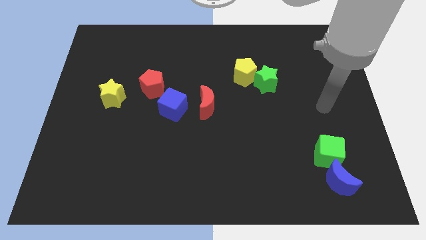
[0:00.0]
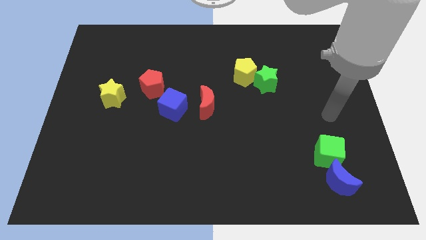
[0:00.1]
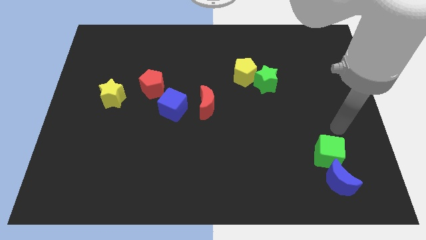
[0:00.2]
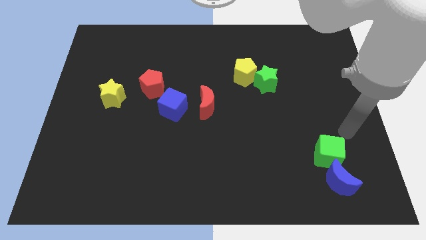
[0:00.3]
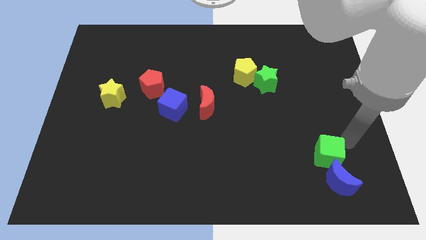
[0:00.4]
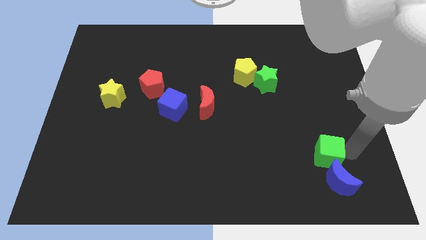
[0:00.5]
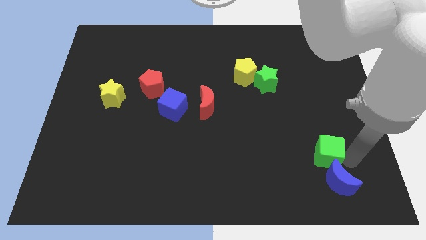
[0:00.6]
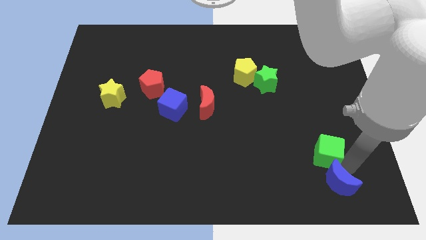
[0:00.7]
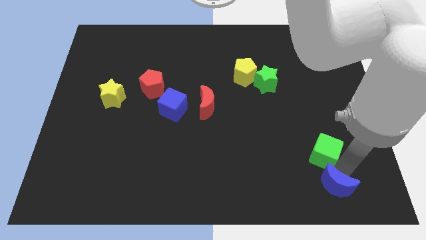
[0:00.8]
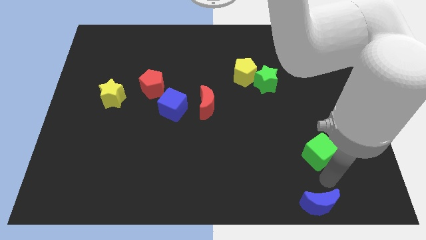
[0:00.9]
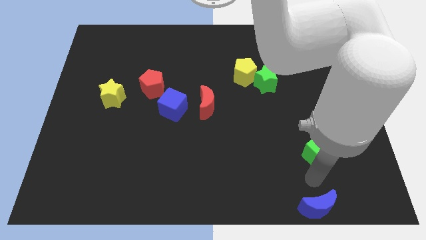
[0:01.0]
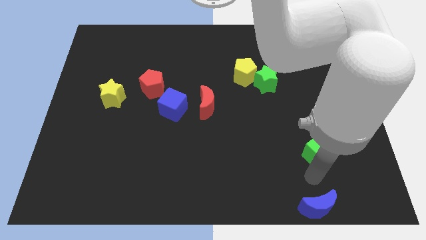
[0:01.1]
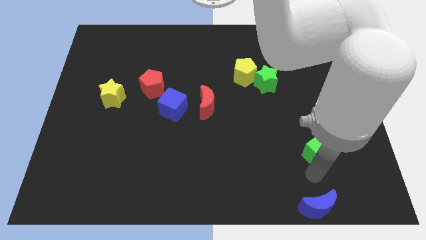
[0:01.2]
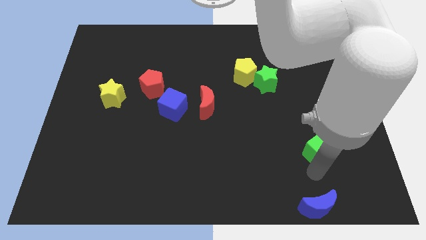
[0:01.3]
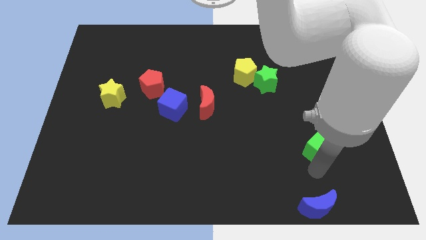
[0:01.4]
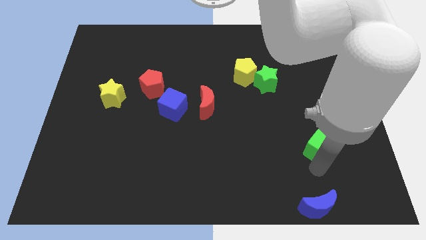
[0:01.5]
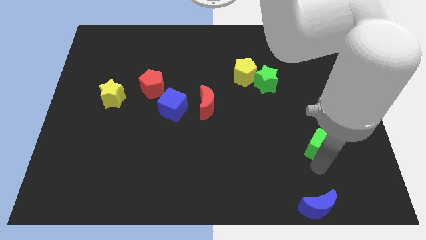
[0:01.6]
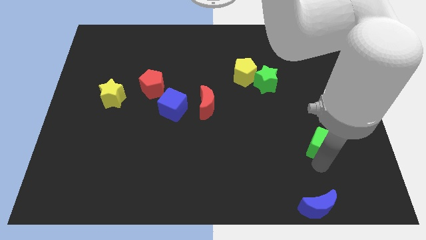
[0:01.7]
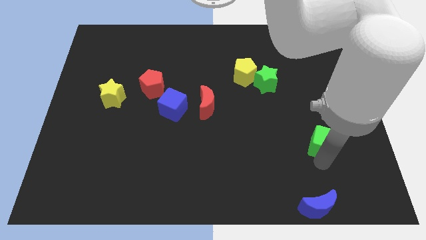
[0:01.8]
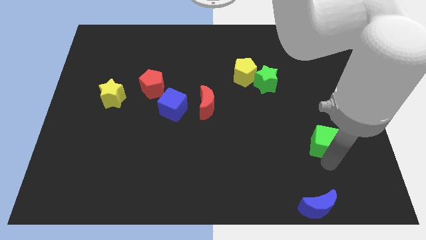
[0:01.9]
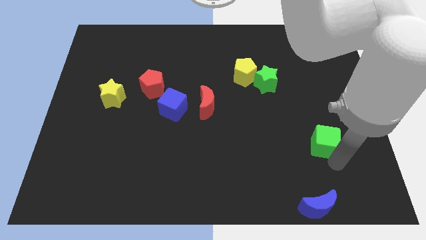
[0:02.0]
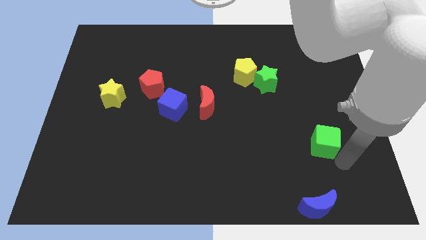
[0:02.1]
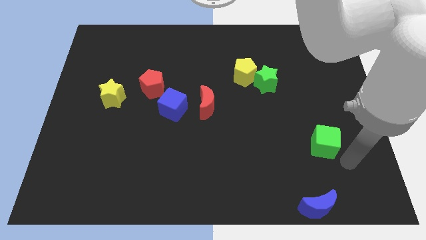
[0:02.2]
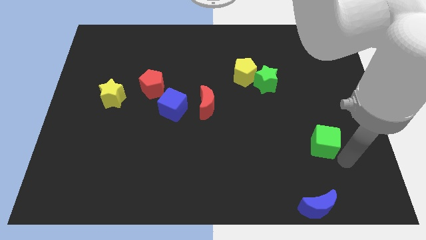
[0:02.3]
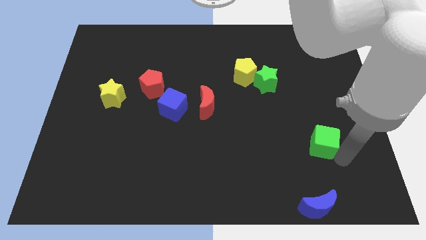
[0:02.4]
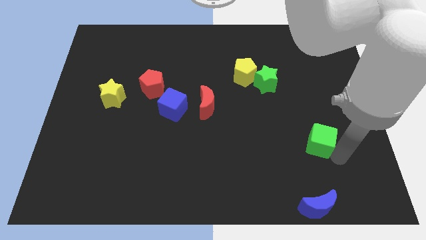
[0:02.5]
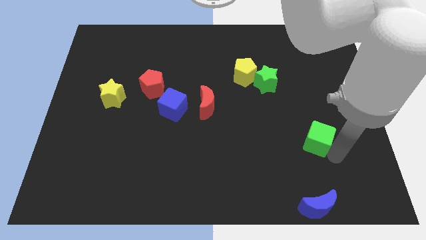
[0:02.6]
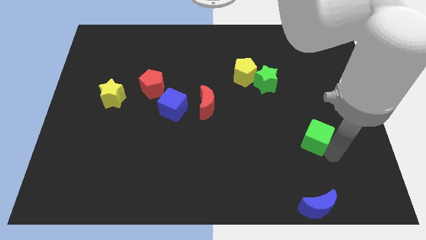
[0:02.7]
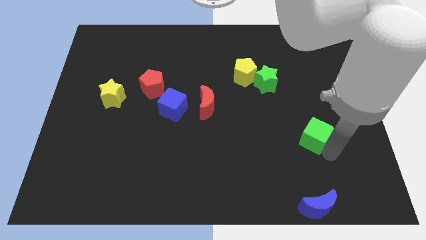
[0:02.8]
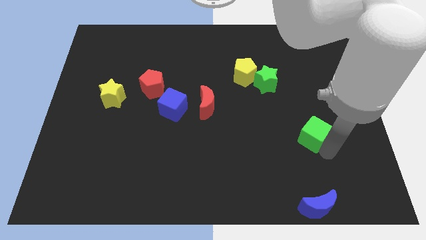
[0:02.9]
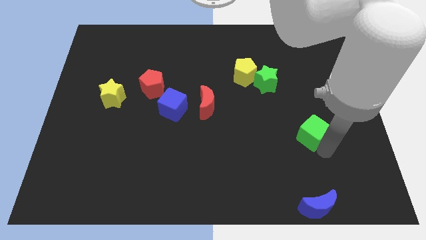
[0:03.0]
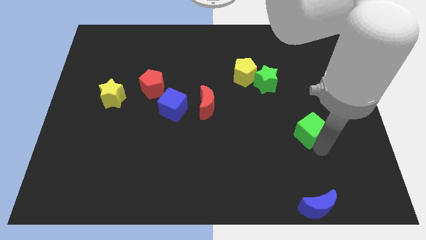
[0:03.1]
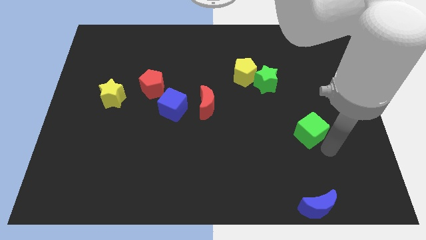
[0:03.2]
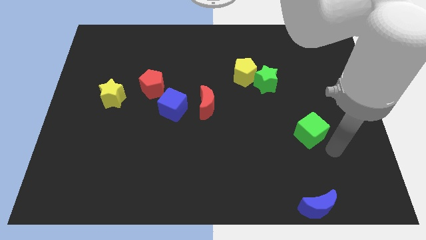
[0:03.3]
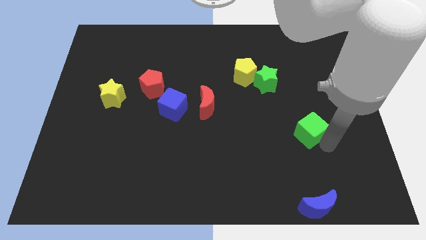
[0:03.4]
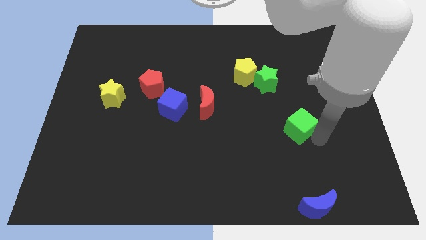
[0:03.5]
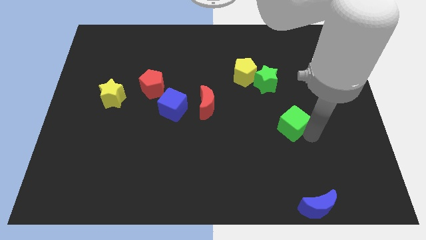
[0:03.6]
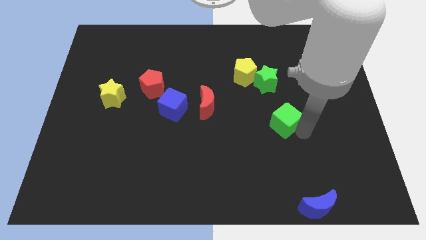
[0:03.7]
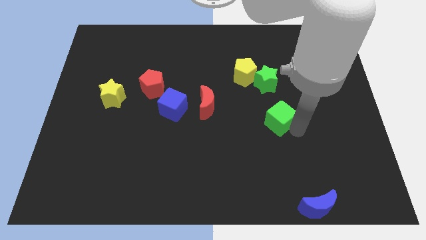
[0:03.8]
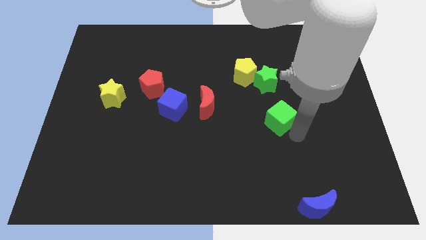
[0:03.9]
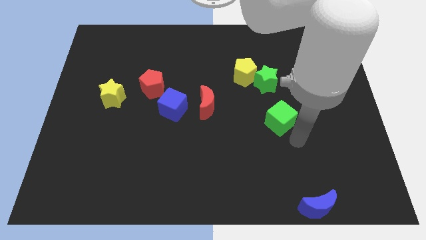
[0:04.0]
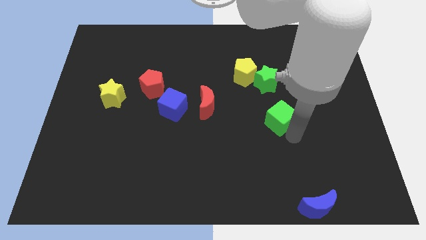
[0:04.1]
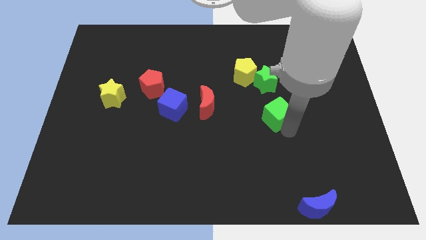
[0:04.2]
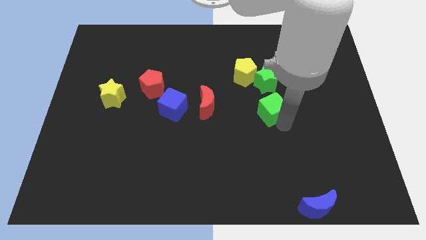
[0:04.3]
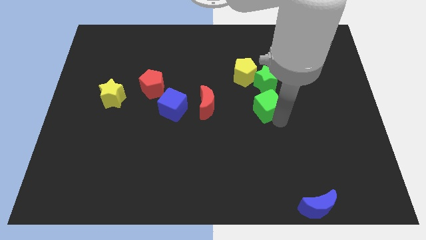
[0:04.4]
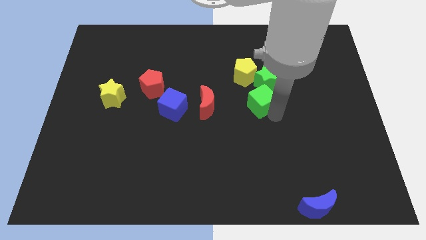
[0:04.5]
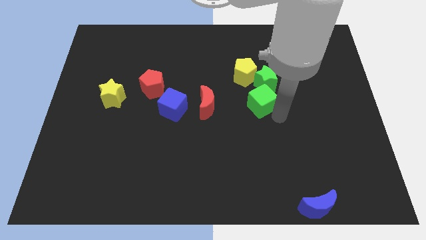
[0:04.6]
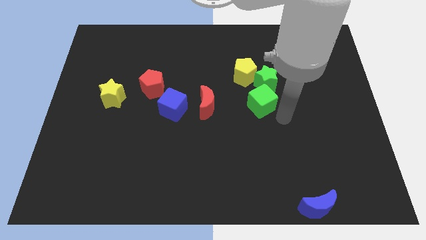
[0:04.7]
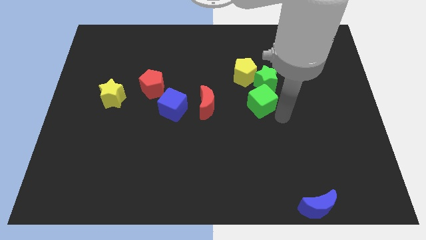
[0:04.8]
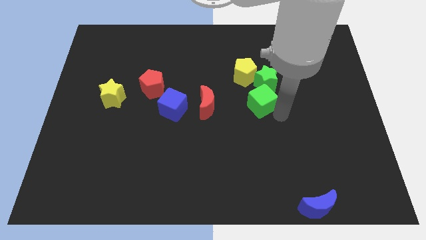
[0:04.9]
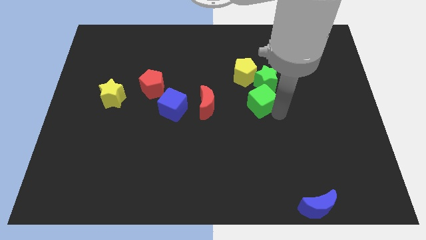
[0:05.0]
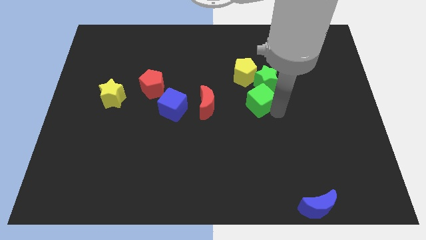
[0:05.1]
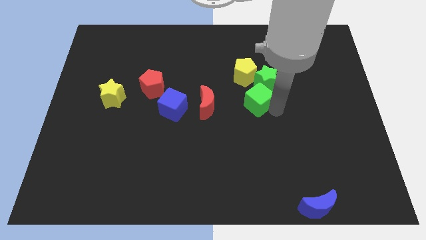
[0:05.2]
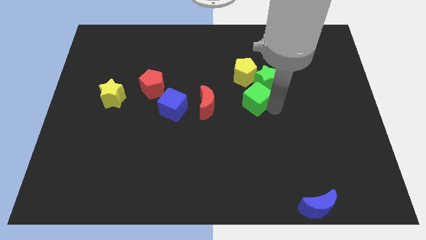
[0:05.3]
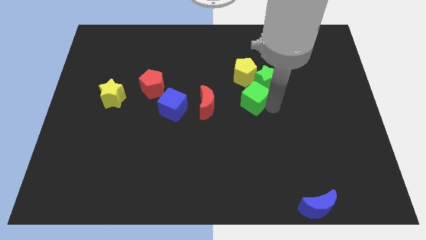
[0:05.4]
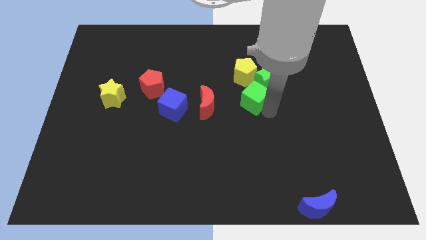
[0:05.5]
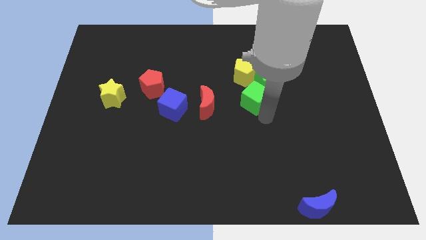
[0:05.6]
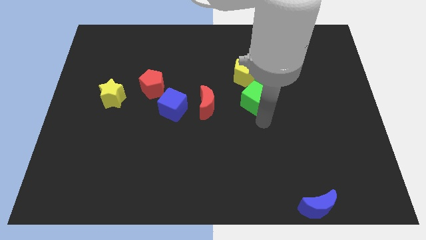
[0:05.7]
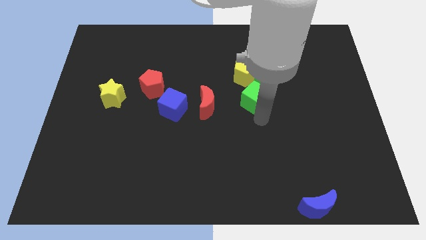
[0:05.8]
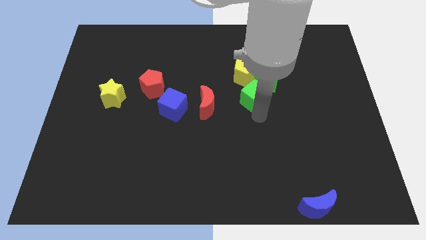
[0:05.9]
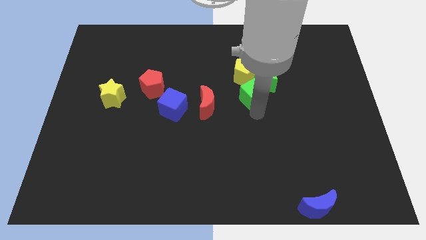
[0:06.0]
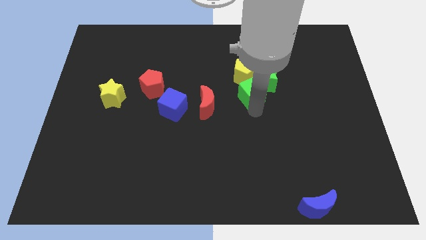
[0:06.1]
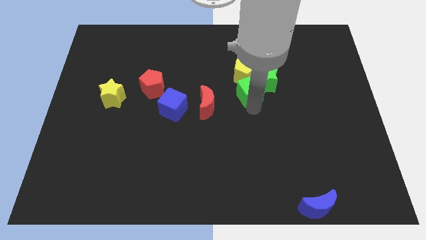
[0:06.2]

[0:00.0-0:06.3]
put the green cube close to the yellow pentagon

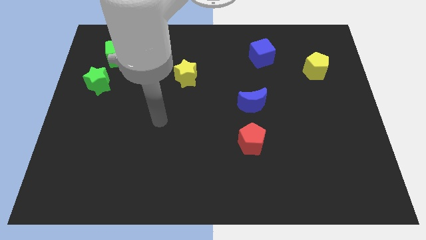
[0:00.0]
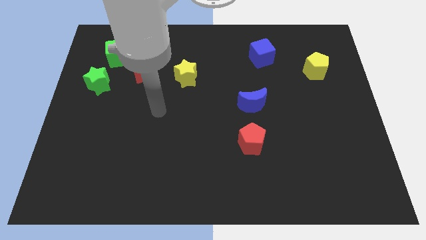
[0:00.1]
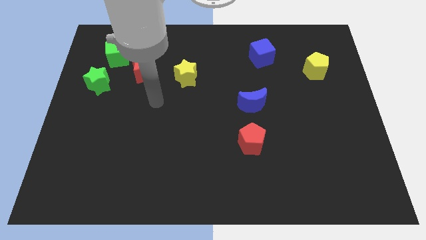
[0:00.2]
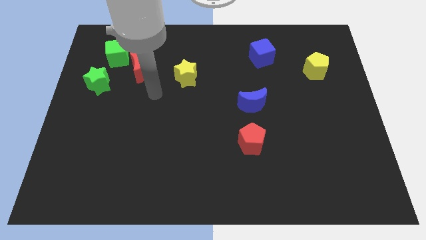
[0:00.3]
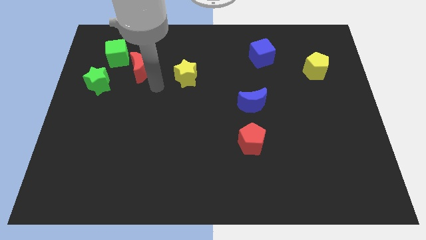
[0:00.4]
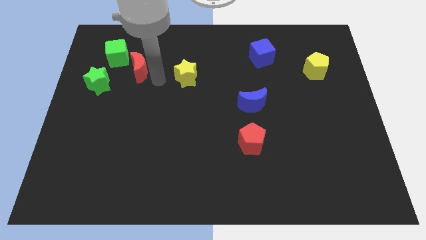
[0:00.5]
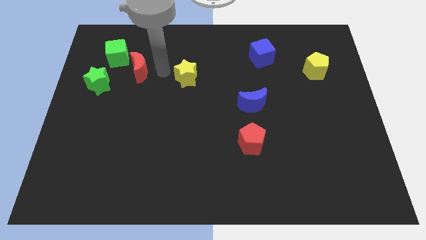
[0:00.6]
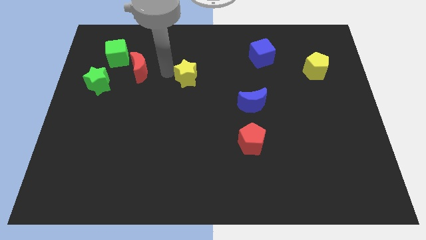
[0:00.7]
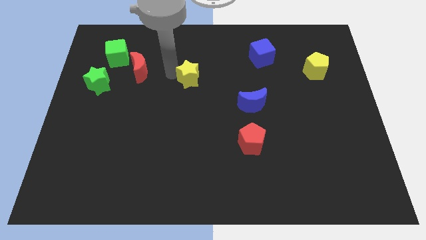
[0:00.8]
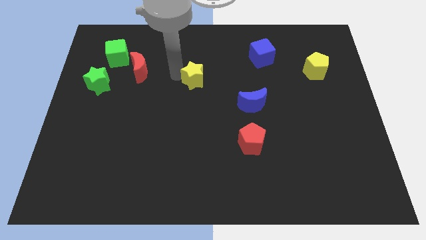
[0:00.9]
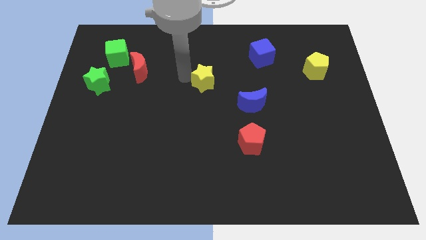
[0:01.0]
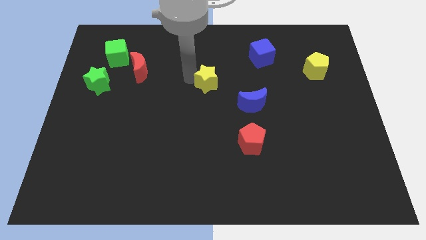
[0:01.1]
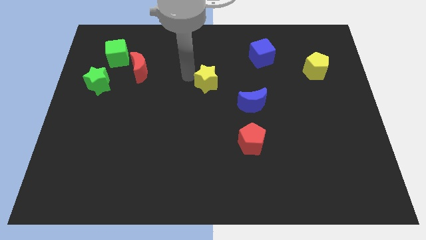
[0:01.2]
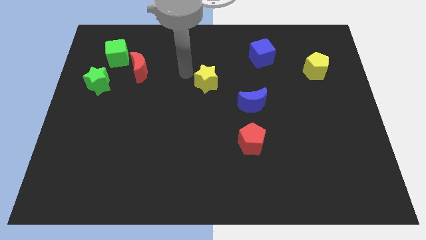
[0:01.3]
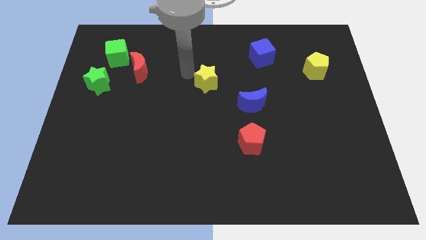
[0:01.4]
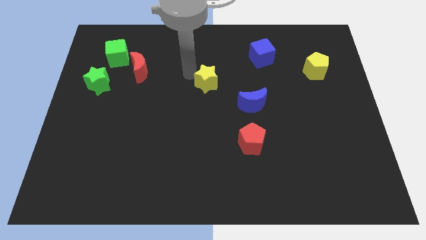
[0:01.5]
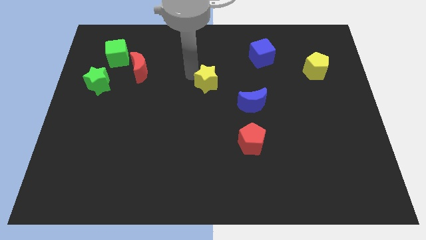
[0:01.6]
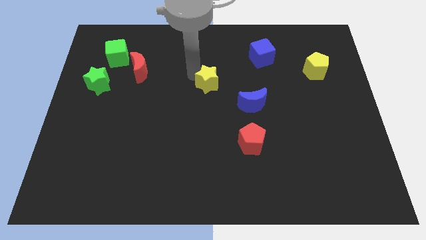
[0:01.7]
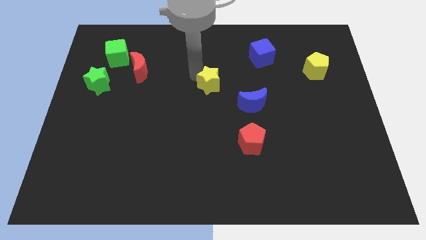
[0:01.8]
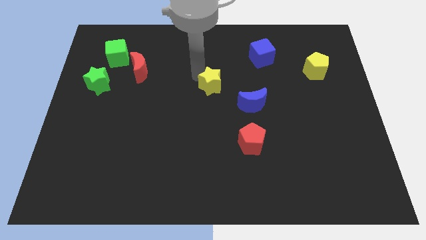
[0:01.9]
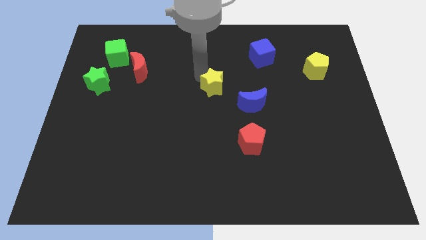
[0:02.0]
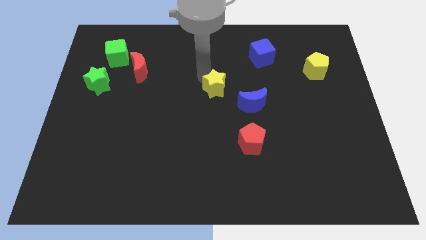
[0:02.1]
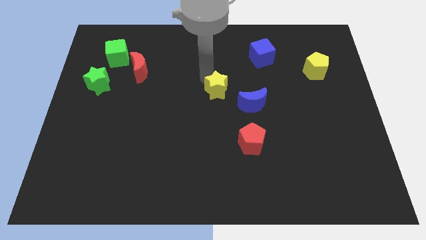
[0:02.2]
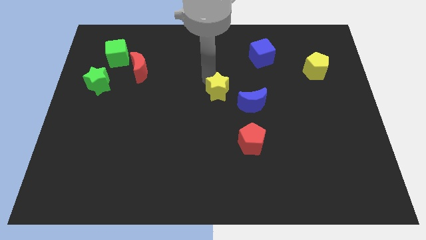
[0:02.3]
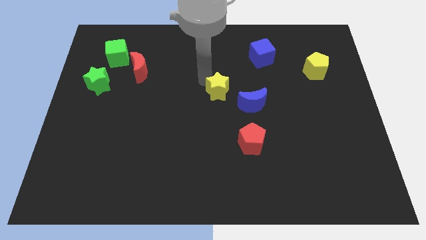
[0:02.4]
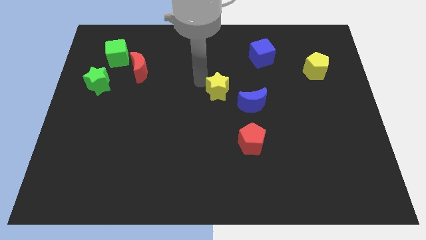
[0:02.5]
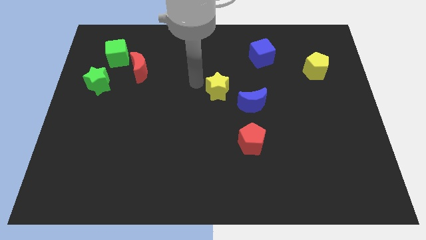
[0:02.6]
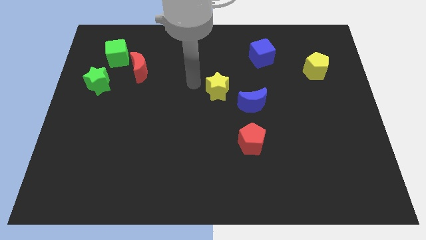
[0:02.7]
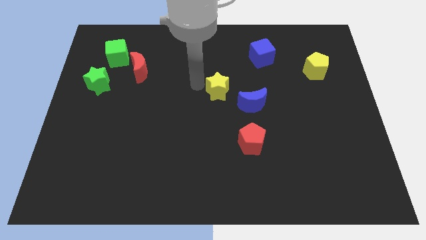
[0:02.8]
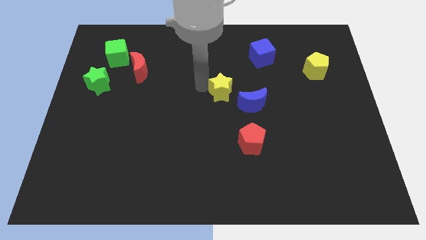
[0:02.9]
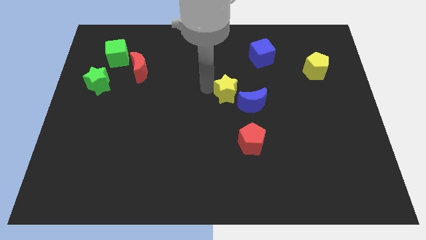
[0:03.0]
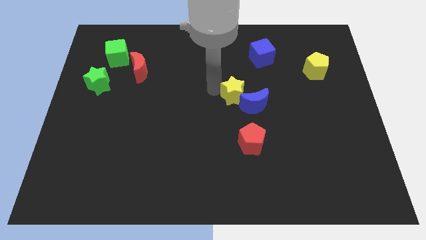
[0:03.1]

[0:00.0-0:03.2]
move the yellow star close to the blue moon
